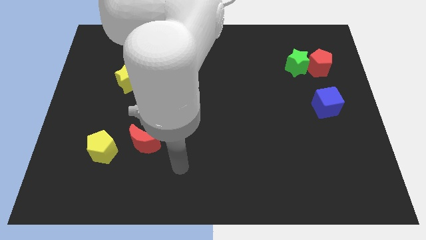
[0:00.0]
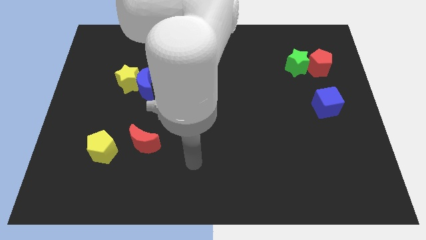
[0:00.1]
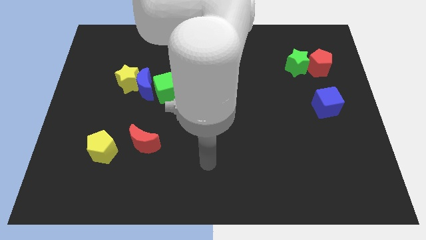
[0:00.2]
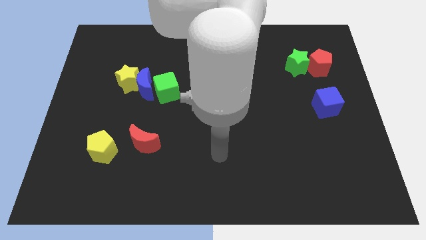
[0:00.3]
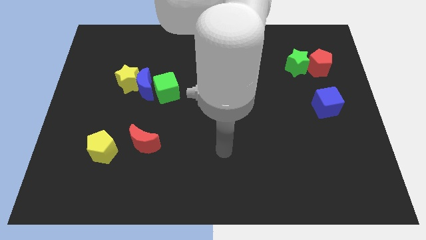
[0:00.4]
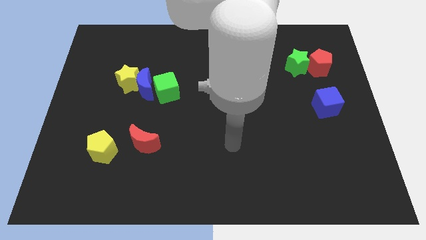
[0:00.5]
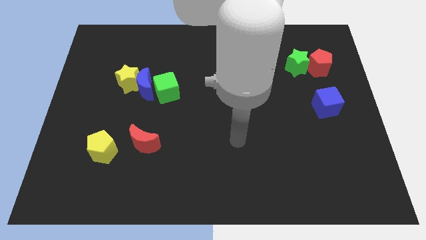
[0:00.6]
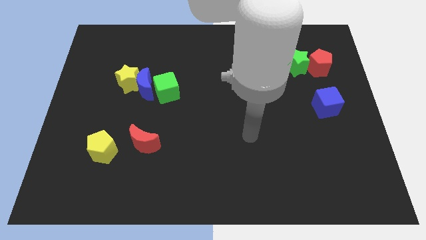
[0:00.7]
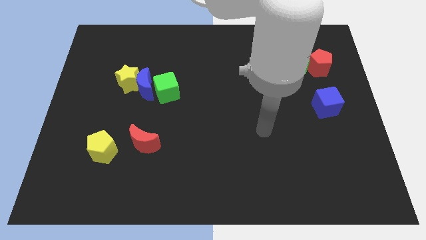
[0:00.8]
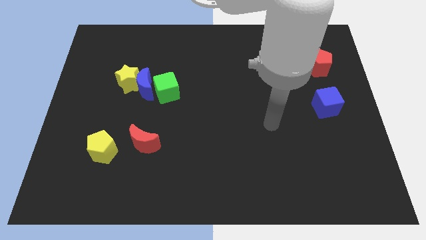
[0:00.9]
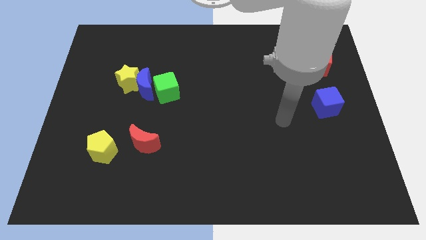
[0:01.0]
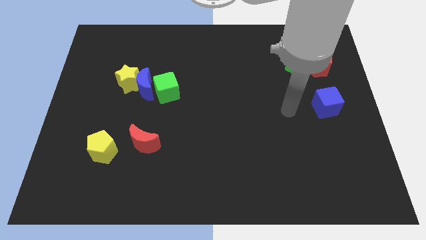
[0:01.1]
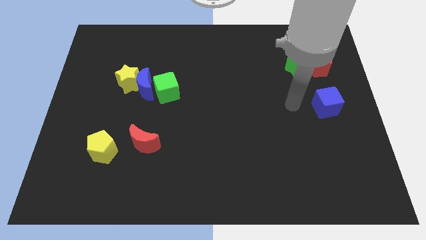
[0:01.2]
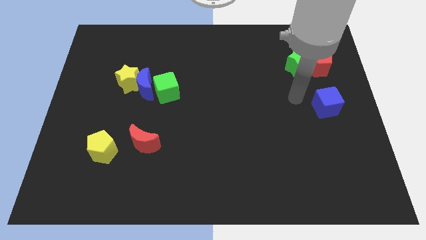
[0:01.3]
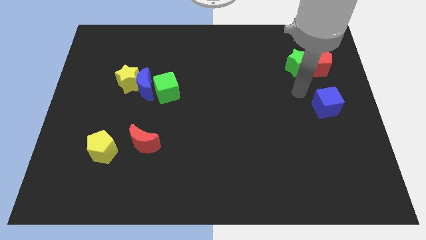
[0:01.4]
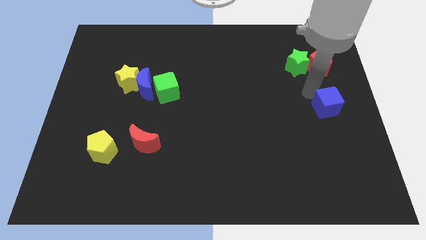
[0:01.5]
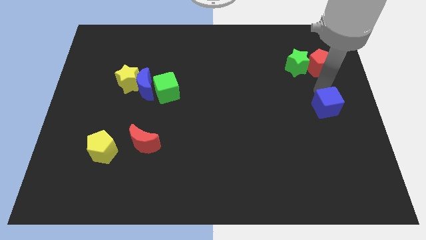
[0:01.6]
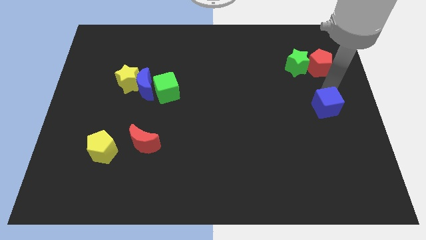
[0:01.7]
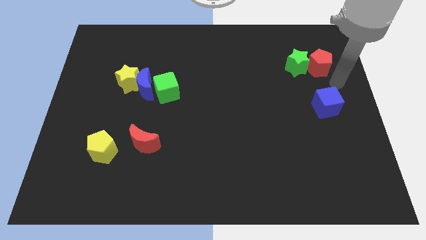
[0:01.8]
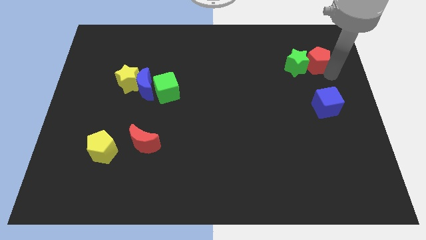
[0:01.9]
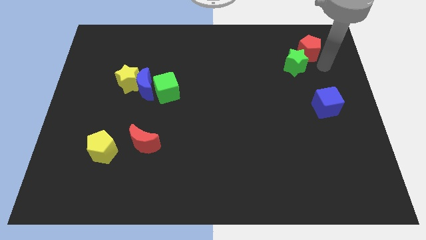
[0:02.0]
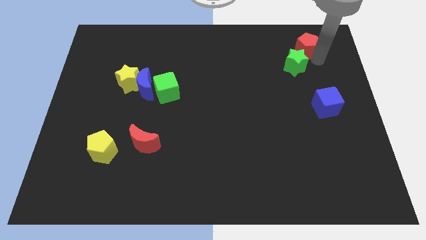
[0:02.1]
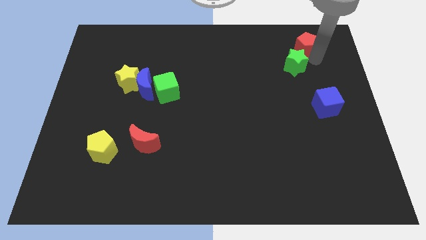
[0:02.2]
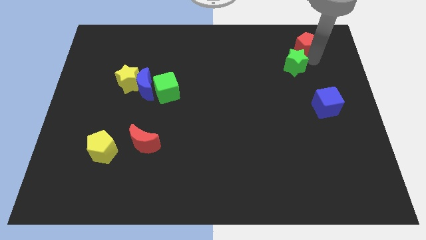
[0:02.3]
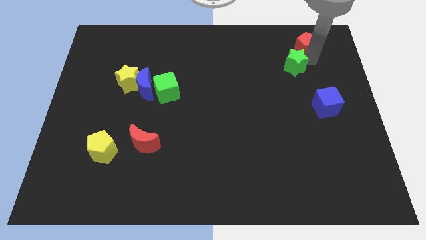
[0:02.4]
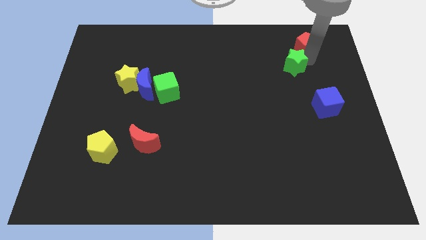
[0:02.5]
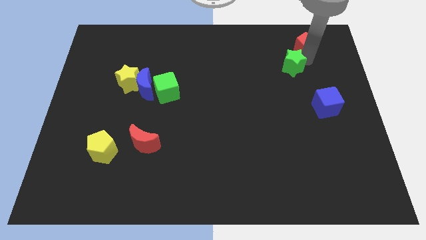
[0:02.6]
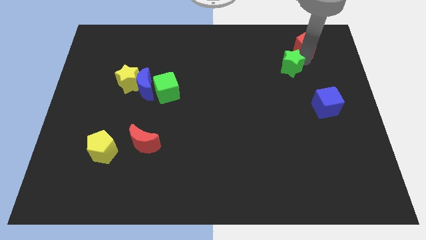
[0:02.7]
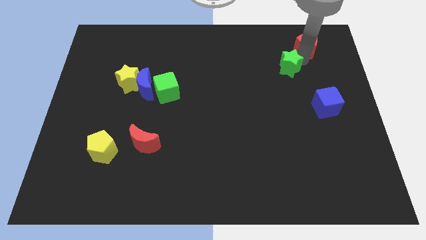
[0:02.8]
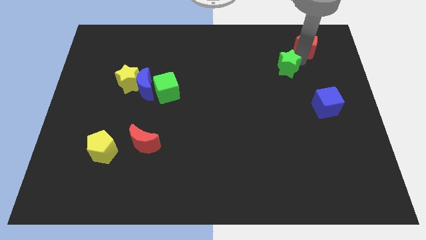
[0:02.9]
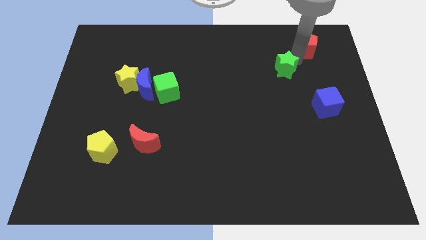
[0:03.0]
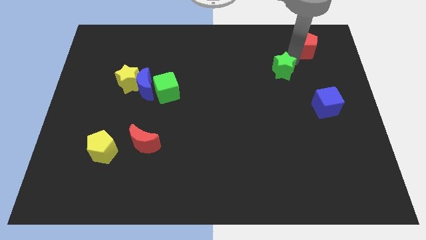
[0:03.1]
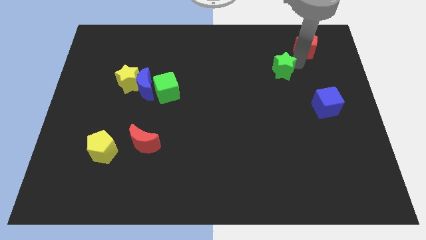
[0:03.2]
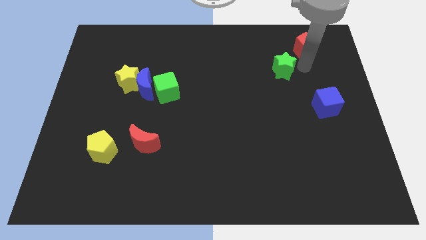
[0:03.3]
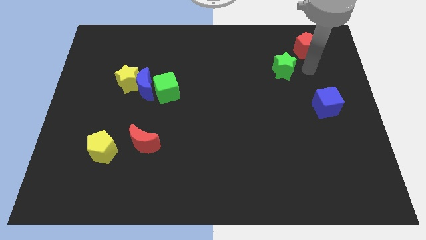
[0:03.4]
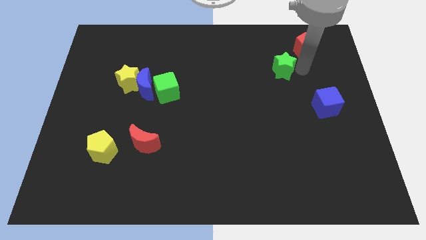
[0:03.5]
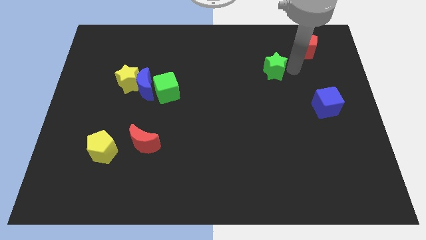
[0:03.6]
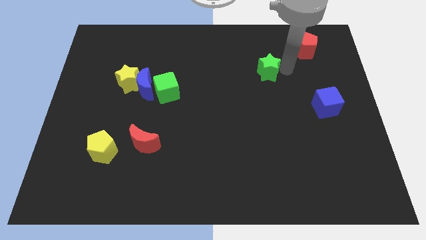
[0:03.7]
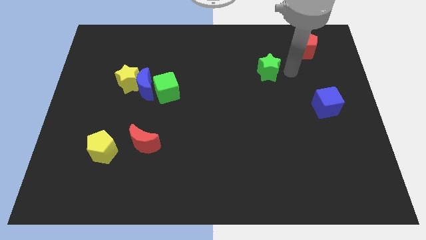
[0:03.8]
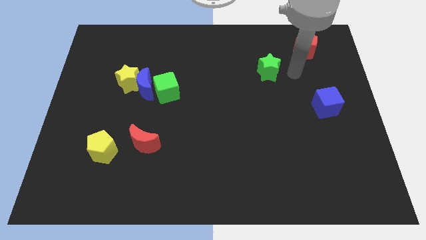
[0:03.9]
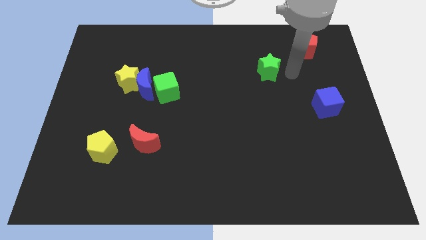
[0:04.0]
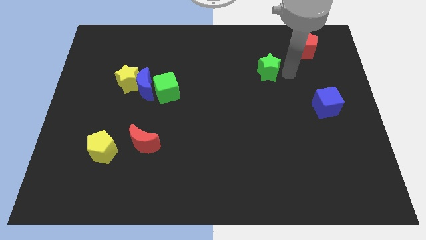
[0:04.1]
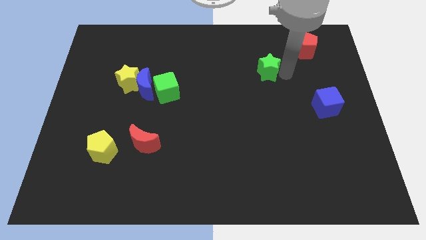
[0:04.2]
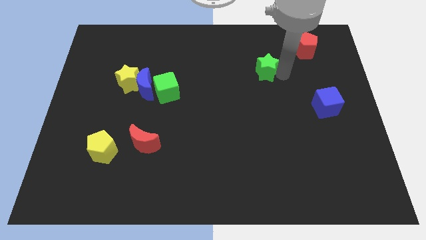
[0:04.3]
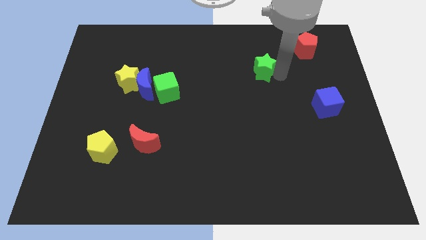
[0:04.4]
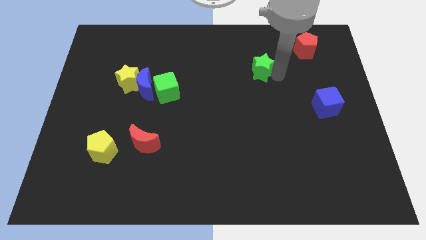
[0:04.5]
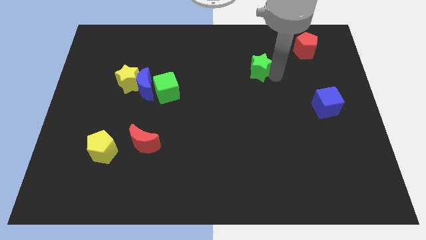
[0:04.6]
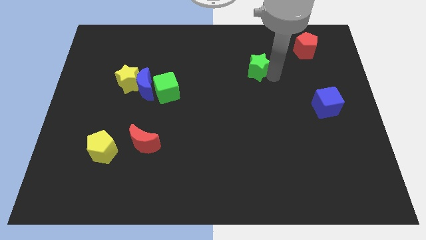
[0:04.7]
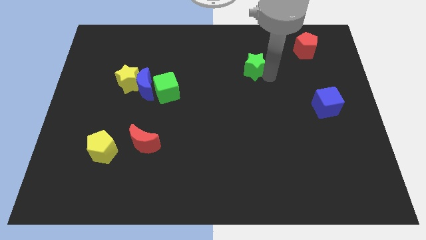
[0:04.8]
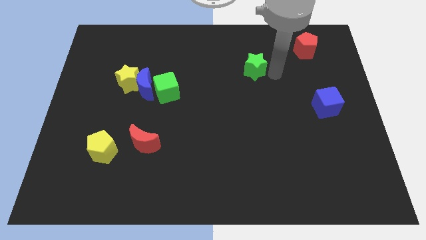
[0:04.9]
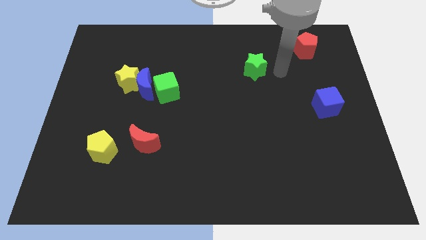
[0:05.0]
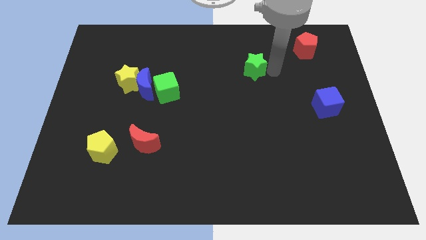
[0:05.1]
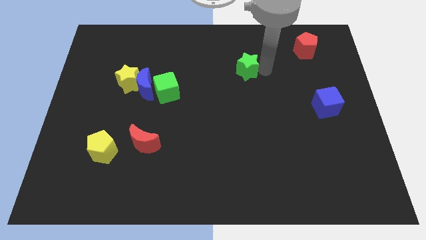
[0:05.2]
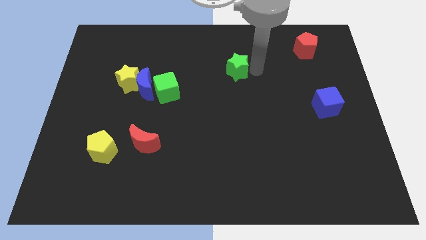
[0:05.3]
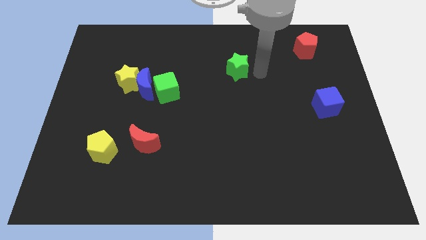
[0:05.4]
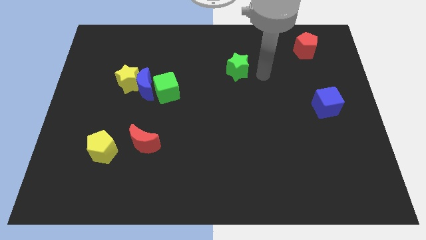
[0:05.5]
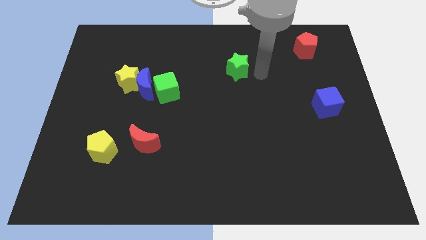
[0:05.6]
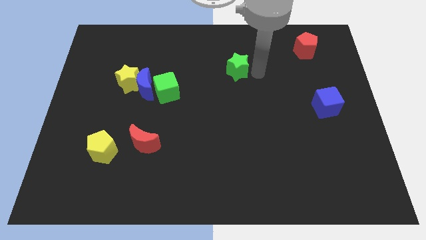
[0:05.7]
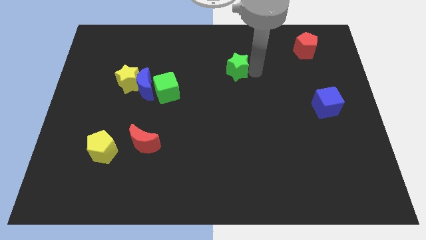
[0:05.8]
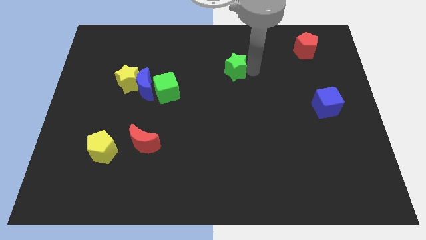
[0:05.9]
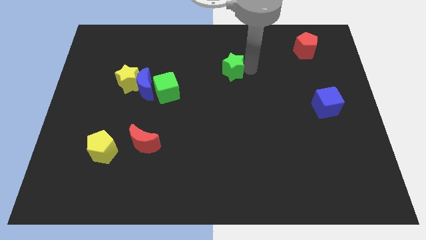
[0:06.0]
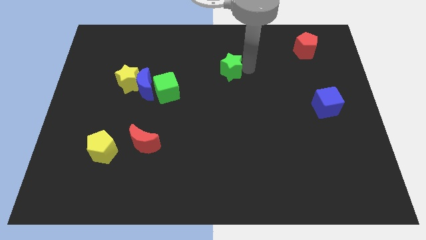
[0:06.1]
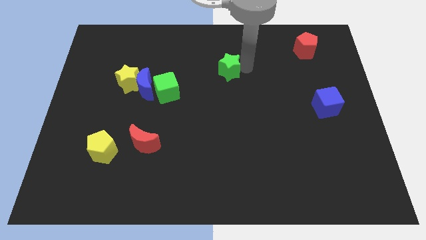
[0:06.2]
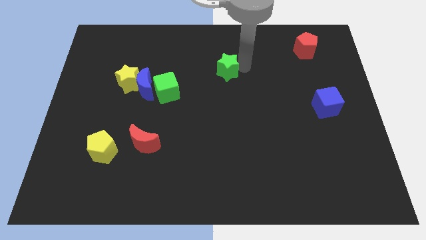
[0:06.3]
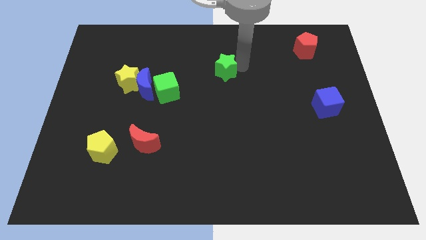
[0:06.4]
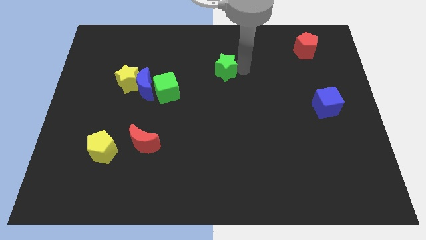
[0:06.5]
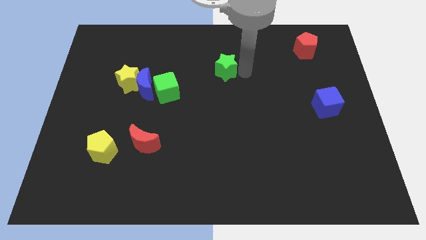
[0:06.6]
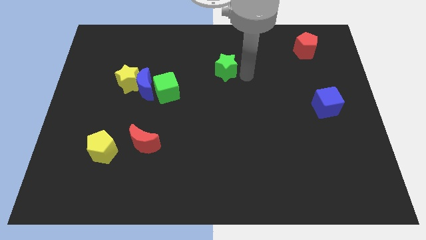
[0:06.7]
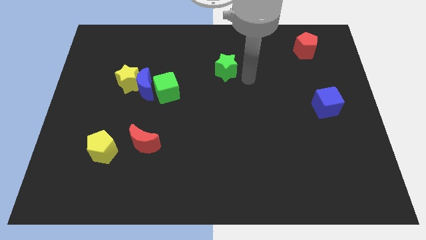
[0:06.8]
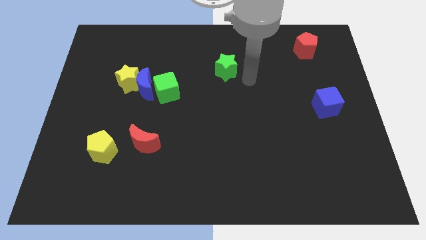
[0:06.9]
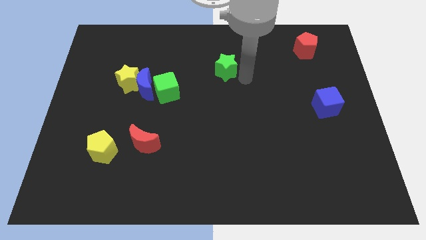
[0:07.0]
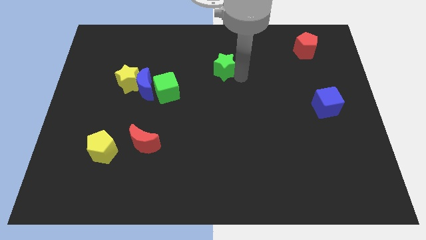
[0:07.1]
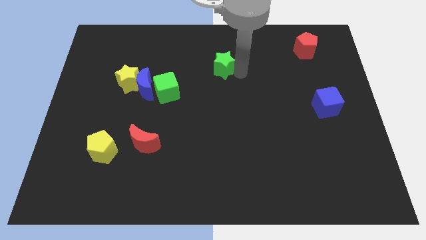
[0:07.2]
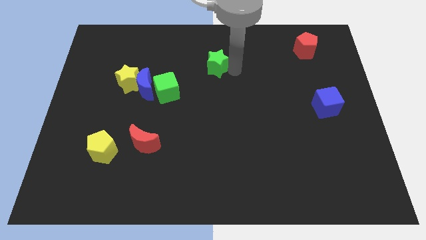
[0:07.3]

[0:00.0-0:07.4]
move the green star left

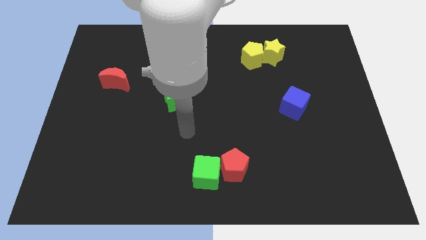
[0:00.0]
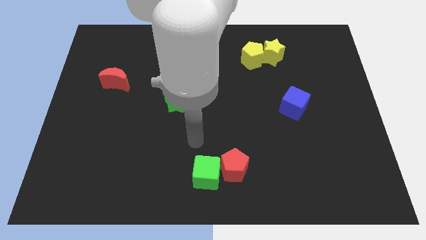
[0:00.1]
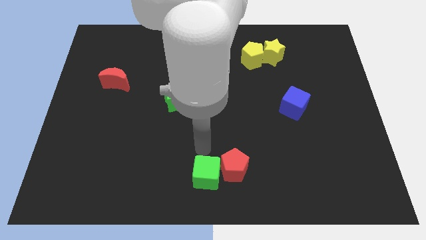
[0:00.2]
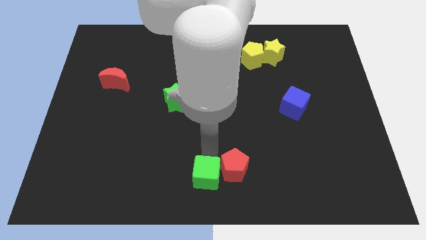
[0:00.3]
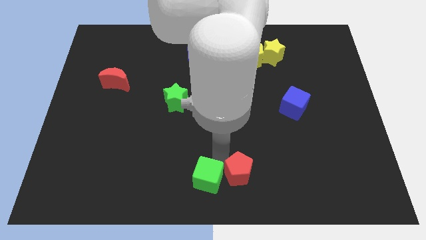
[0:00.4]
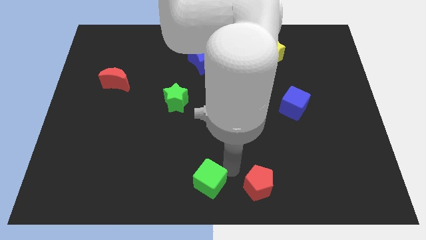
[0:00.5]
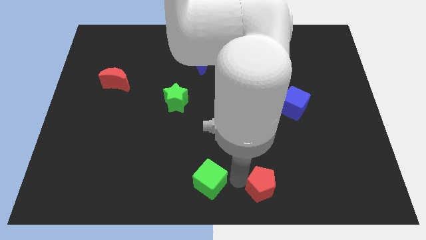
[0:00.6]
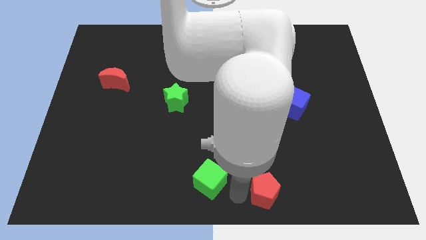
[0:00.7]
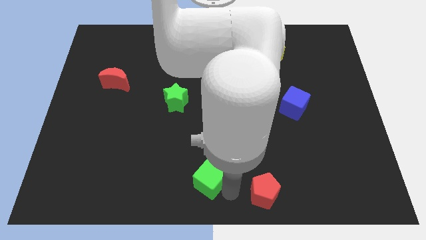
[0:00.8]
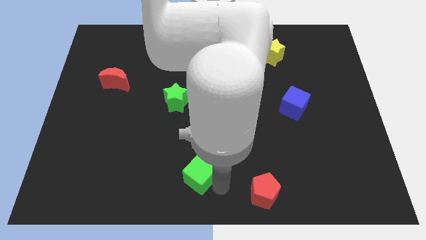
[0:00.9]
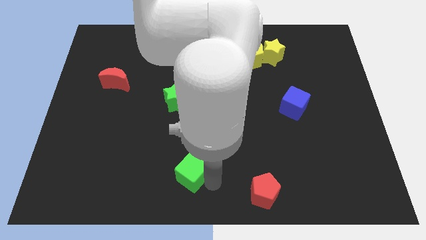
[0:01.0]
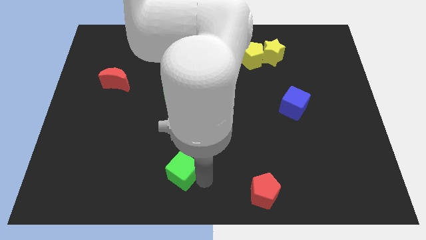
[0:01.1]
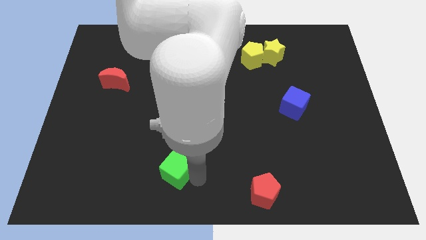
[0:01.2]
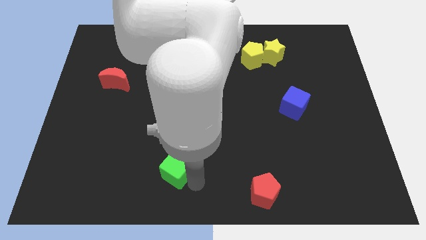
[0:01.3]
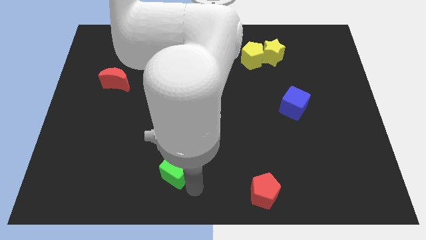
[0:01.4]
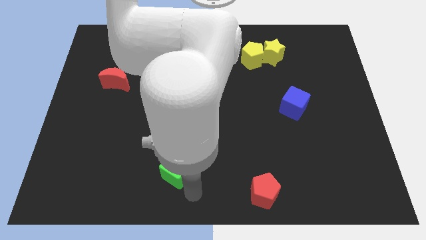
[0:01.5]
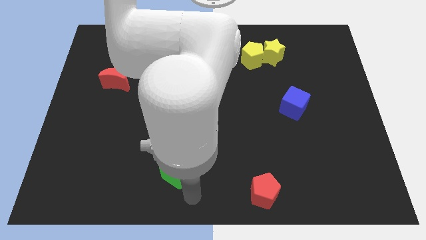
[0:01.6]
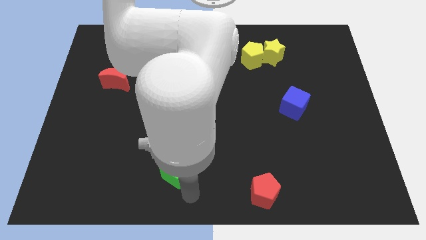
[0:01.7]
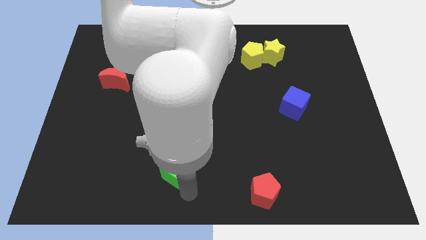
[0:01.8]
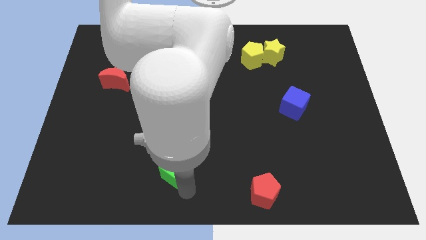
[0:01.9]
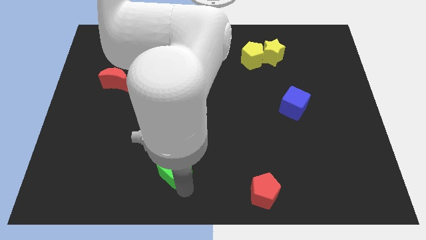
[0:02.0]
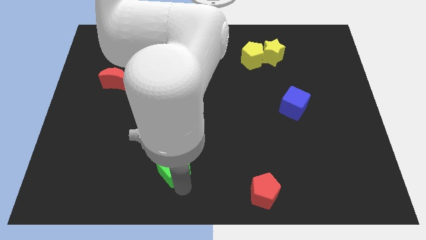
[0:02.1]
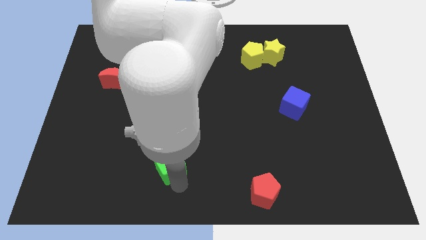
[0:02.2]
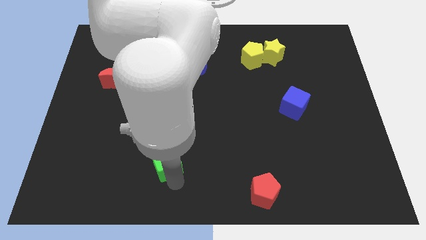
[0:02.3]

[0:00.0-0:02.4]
push the green cube somewhat upwards and left diagonally
